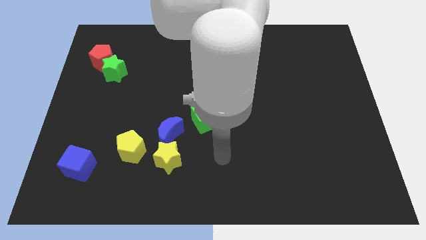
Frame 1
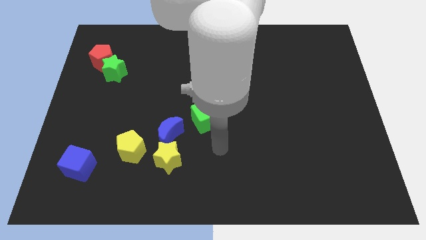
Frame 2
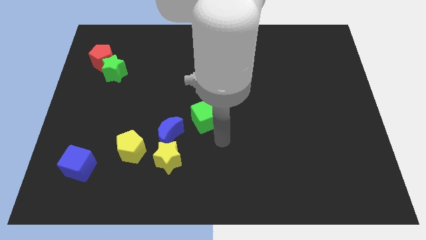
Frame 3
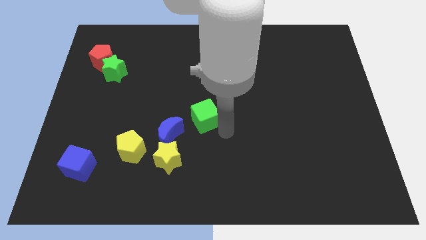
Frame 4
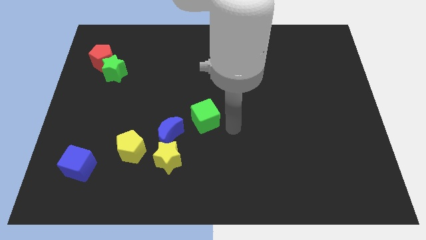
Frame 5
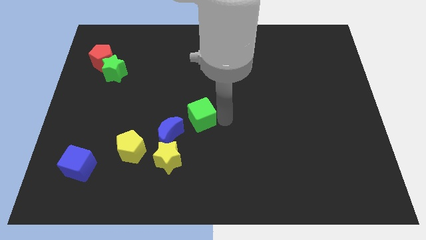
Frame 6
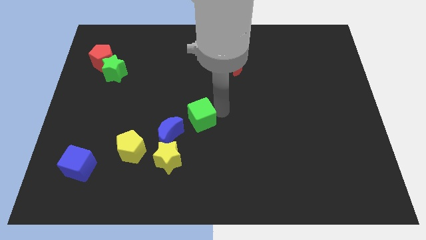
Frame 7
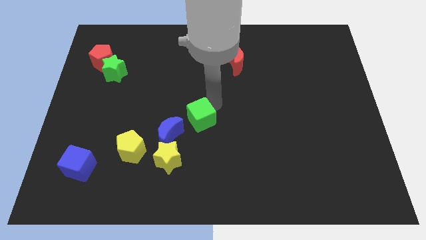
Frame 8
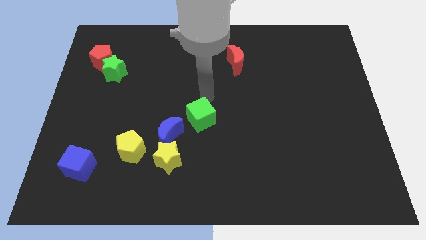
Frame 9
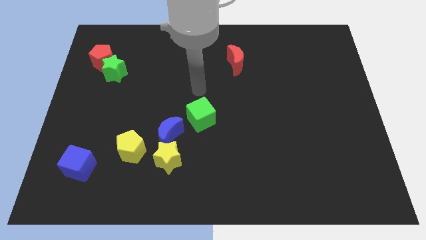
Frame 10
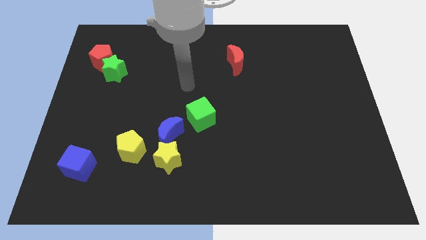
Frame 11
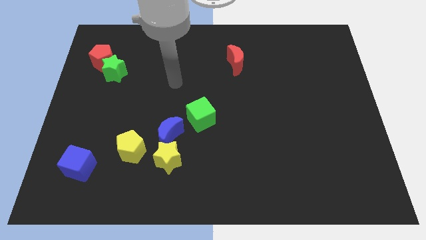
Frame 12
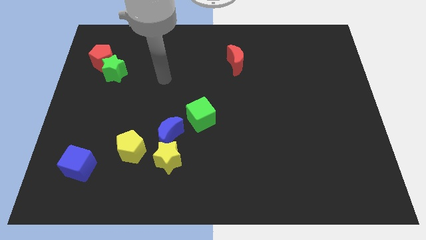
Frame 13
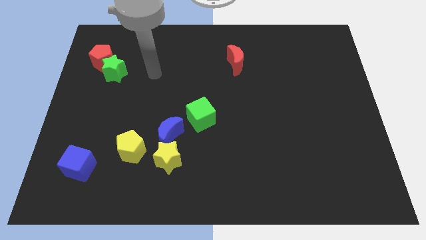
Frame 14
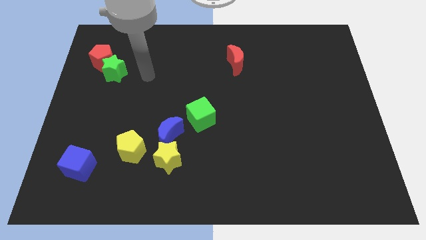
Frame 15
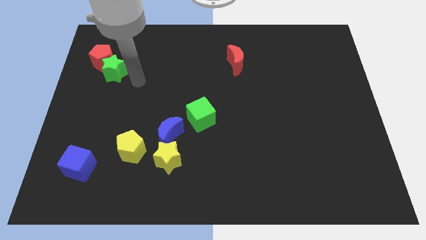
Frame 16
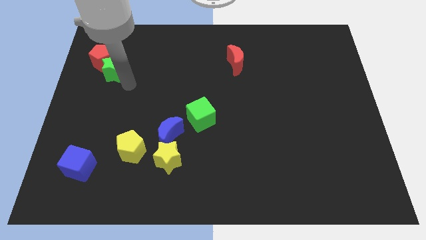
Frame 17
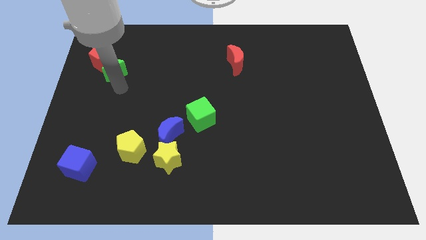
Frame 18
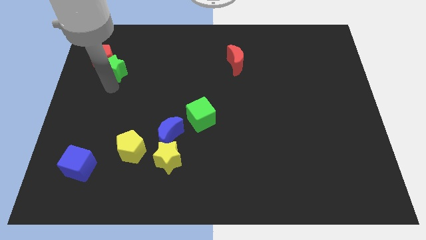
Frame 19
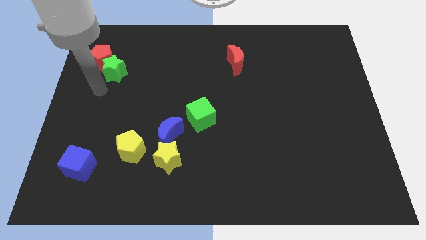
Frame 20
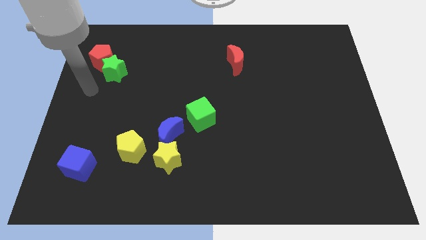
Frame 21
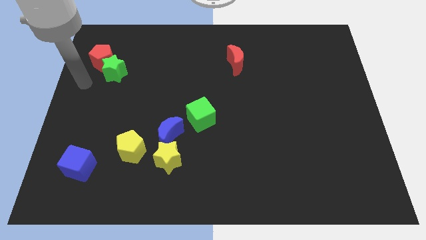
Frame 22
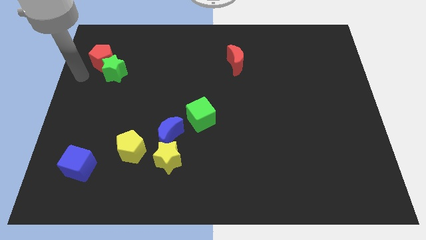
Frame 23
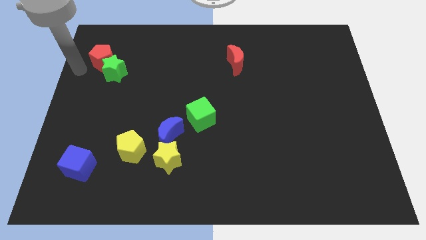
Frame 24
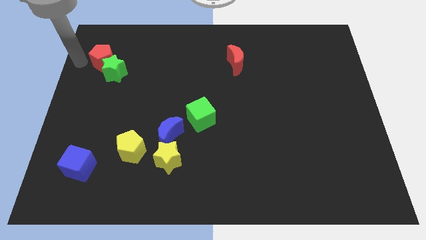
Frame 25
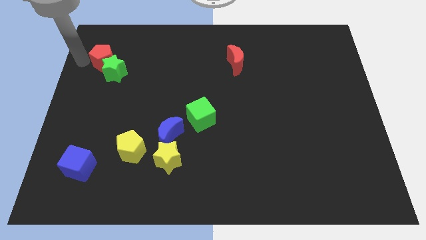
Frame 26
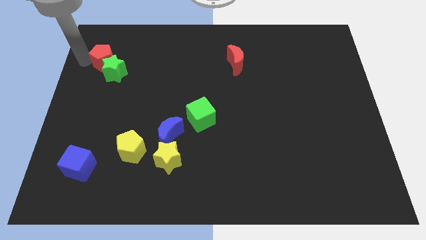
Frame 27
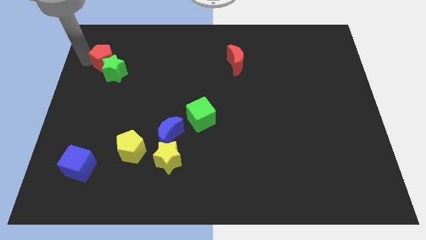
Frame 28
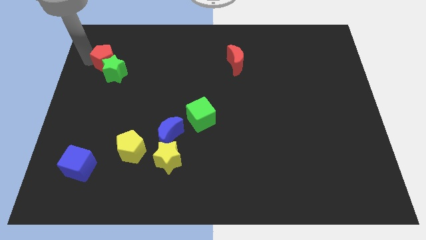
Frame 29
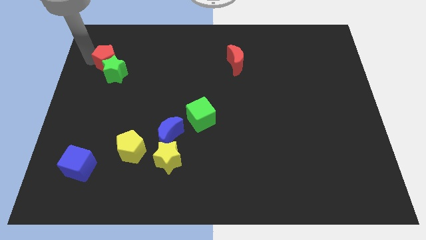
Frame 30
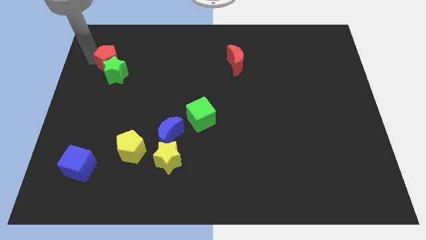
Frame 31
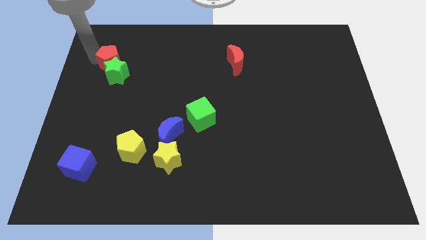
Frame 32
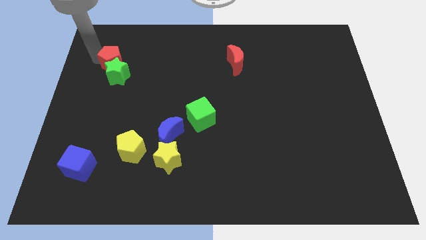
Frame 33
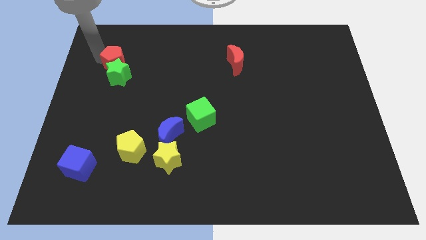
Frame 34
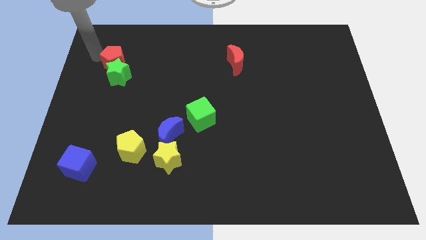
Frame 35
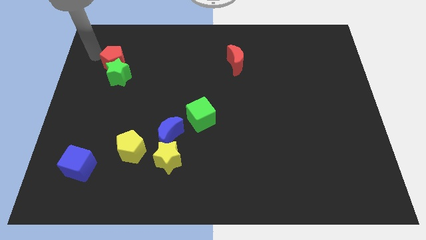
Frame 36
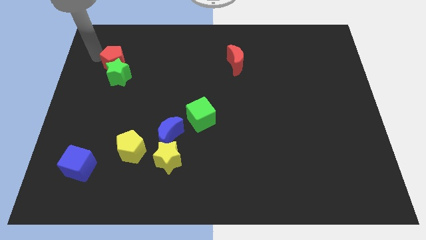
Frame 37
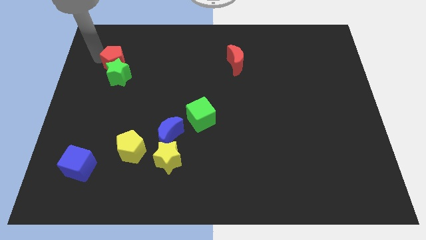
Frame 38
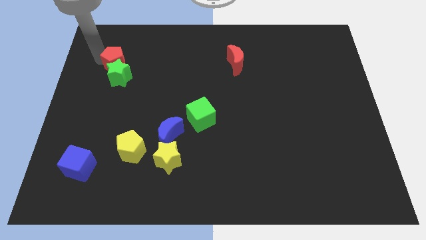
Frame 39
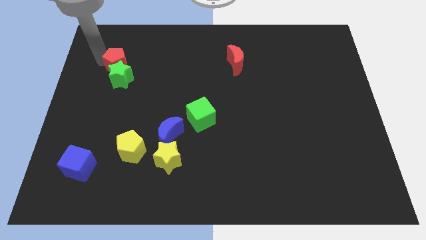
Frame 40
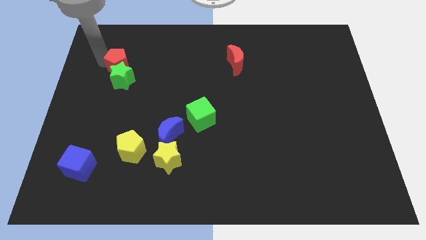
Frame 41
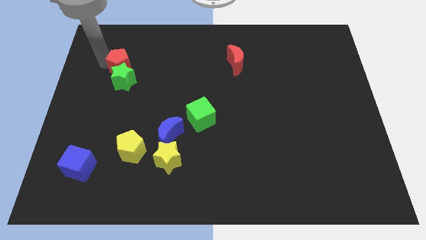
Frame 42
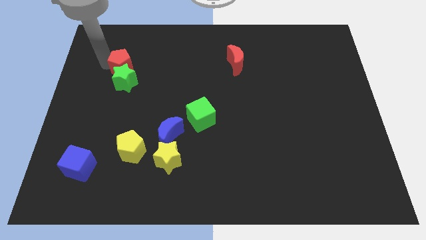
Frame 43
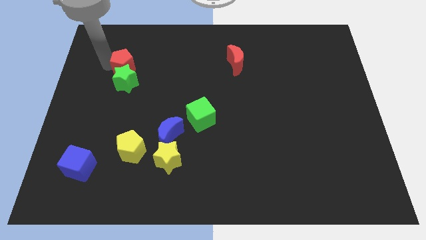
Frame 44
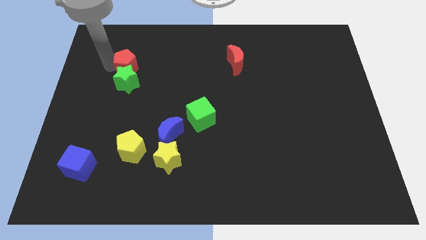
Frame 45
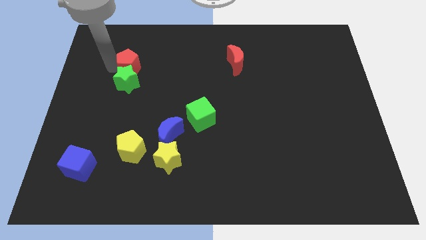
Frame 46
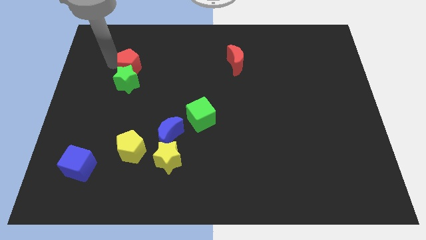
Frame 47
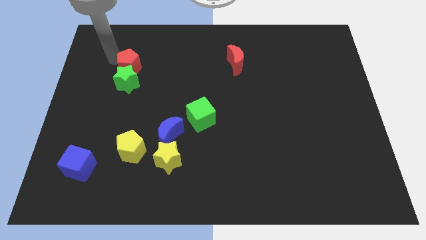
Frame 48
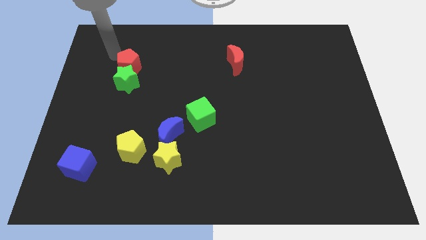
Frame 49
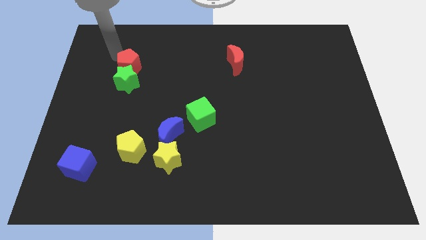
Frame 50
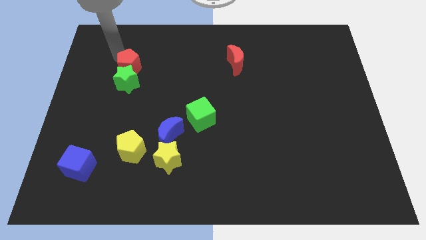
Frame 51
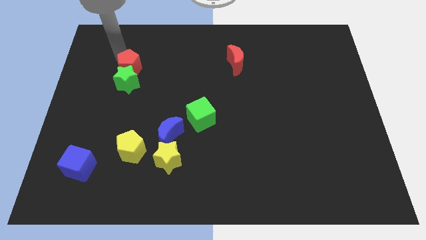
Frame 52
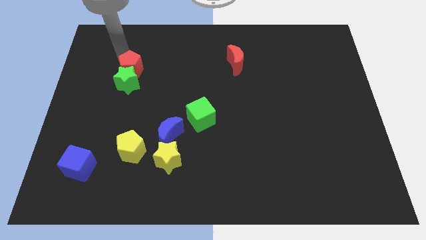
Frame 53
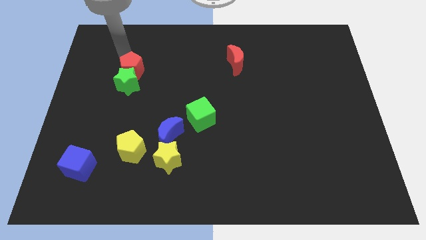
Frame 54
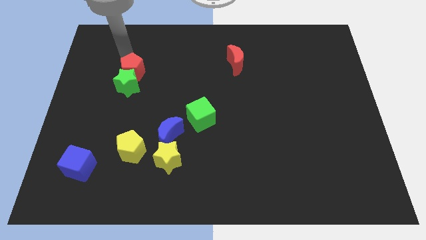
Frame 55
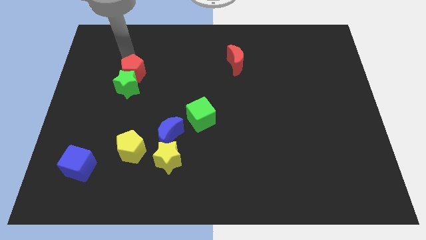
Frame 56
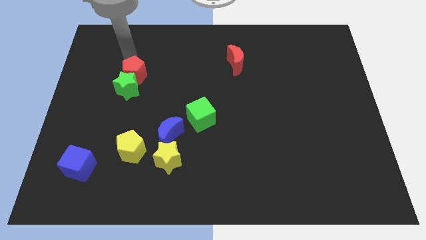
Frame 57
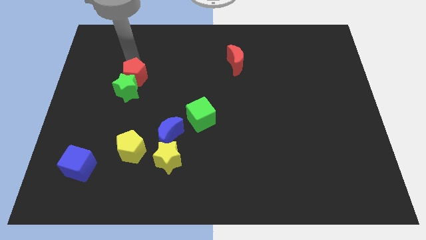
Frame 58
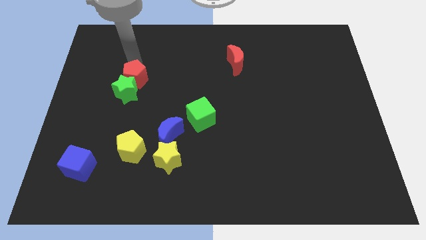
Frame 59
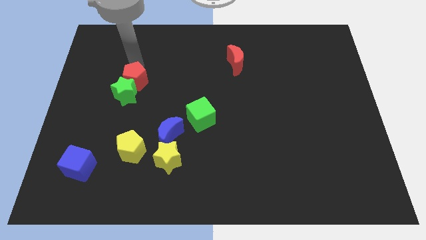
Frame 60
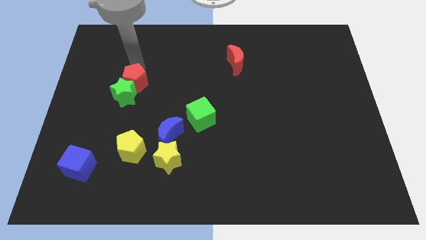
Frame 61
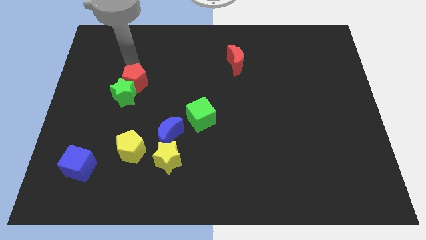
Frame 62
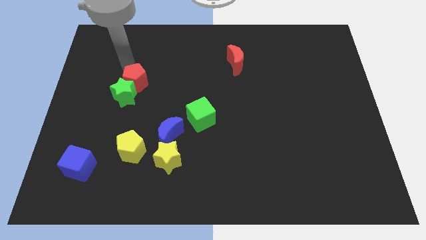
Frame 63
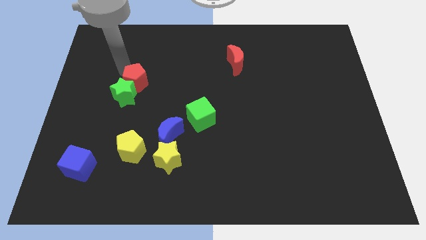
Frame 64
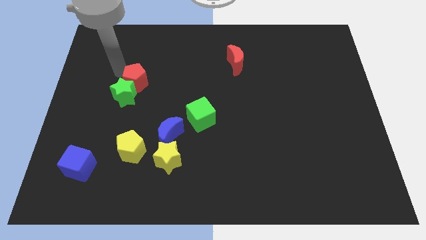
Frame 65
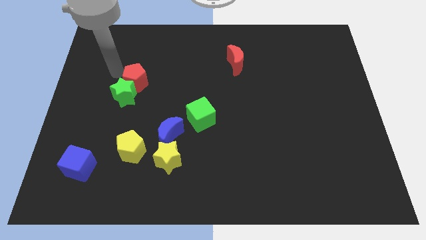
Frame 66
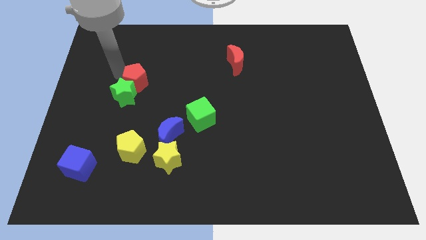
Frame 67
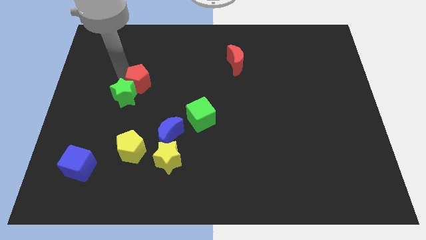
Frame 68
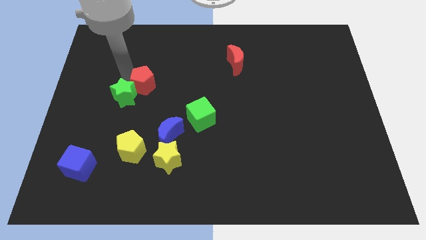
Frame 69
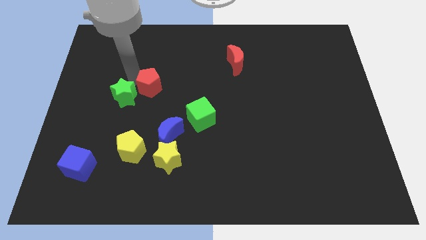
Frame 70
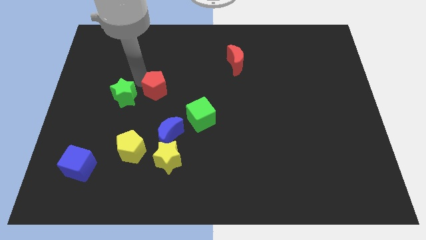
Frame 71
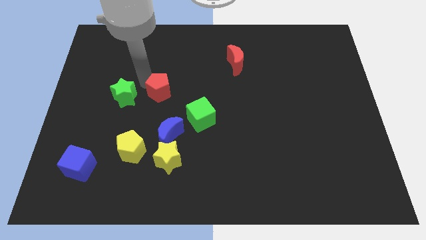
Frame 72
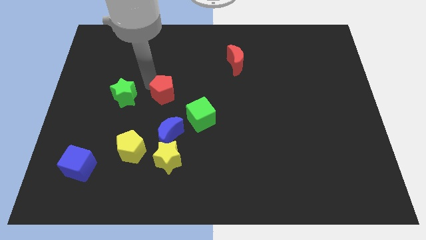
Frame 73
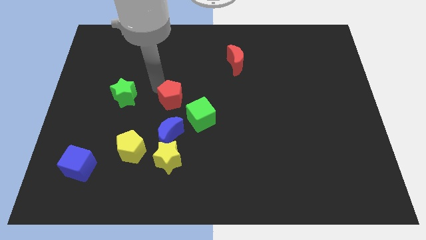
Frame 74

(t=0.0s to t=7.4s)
move the red pentagon downwards and then right

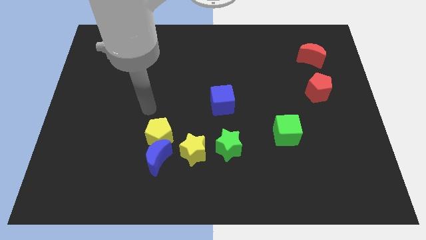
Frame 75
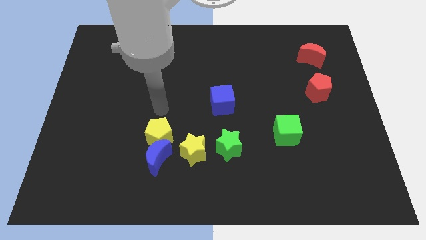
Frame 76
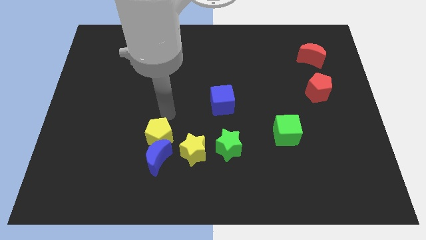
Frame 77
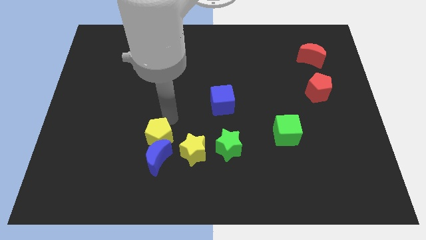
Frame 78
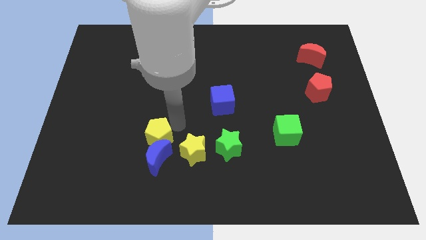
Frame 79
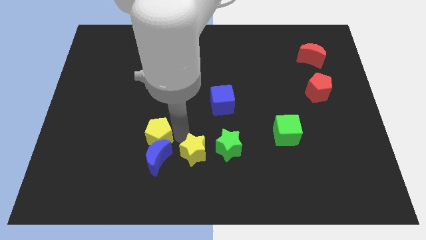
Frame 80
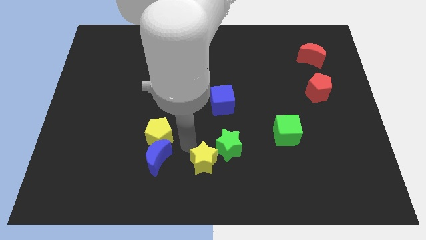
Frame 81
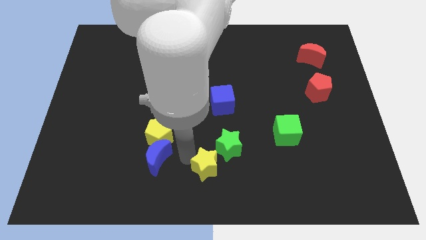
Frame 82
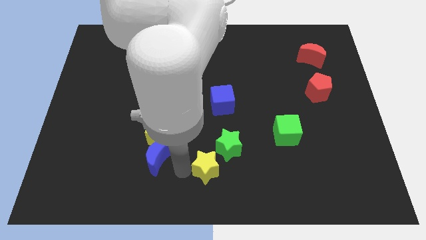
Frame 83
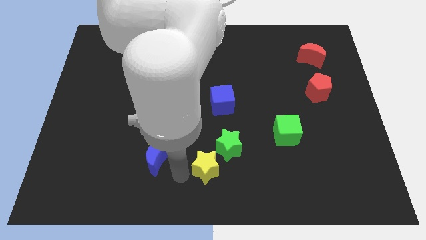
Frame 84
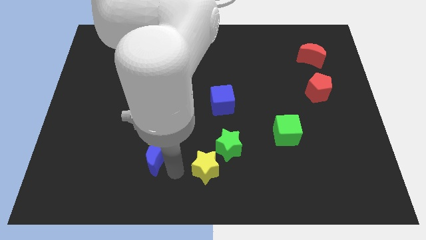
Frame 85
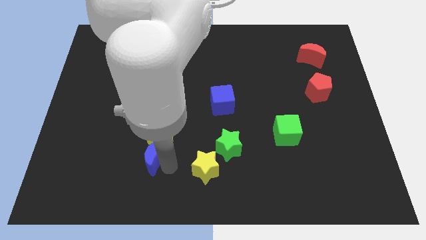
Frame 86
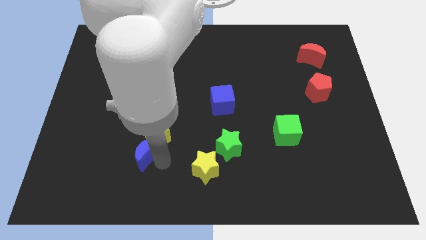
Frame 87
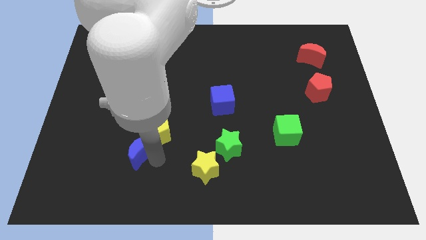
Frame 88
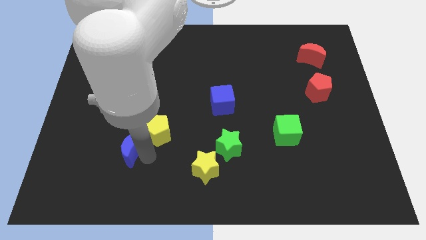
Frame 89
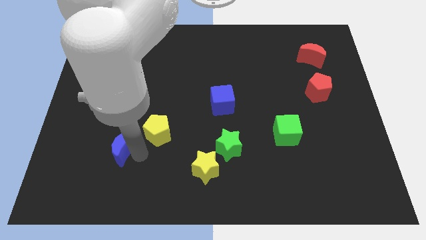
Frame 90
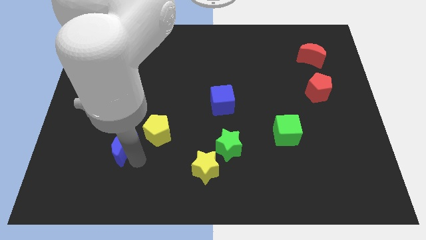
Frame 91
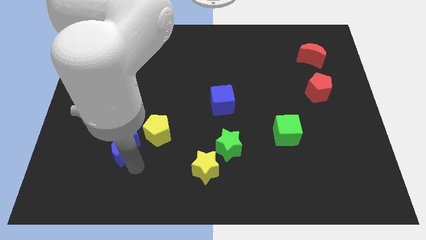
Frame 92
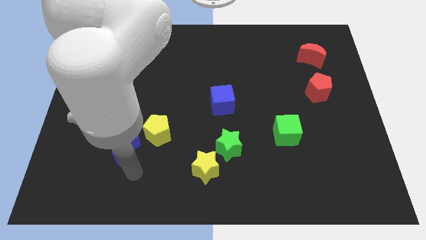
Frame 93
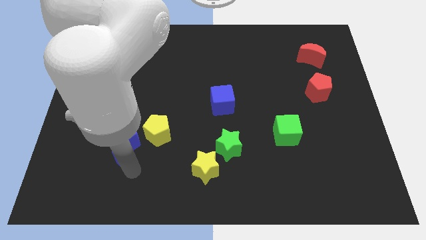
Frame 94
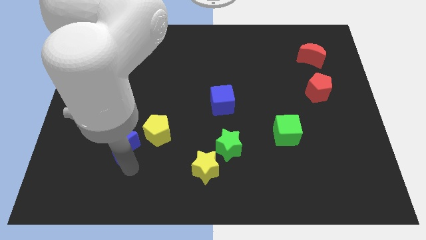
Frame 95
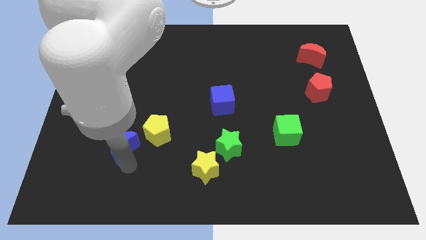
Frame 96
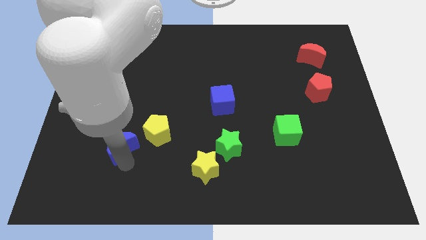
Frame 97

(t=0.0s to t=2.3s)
push the blue moon diagonally upwards and to the left slightly
